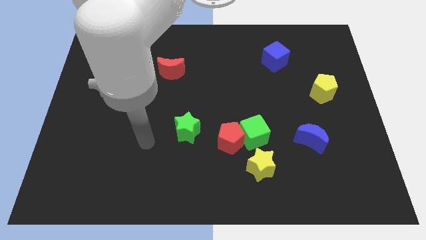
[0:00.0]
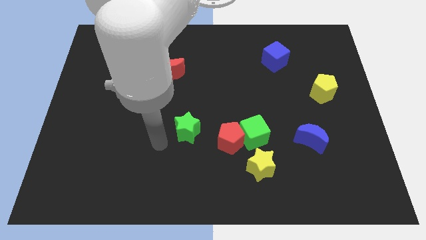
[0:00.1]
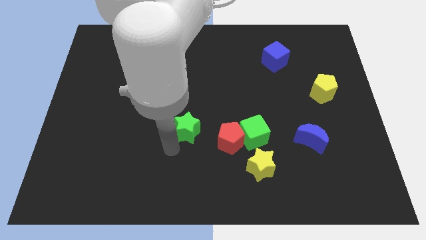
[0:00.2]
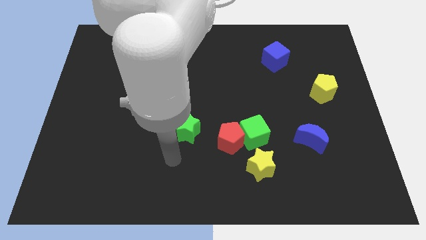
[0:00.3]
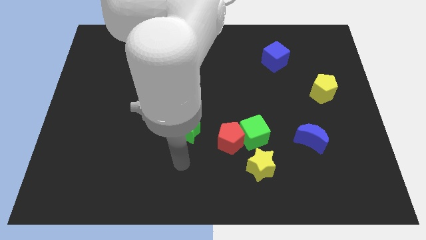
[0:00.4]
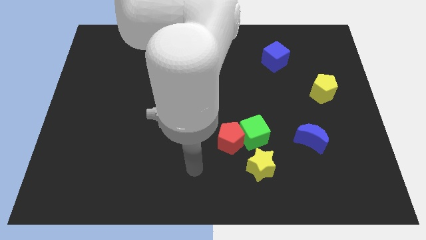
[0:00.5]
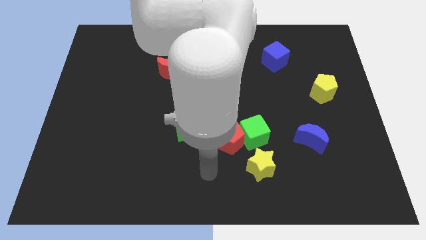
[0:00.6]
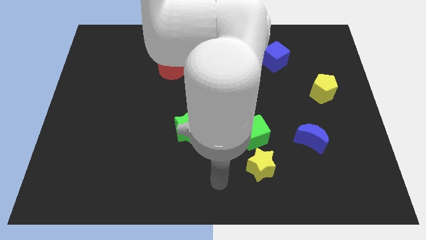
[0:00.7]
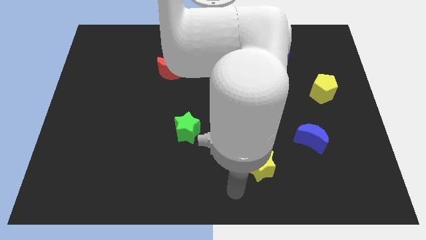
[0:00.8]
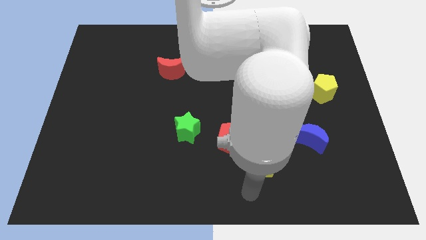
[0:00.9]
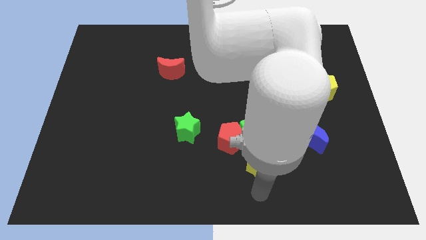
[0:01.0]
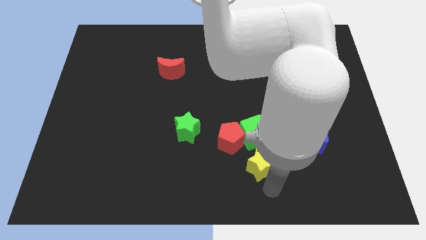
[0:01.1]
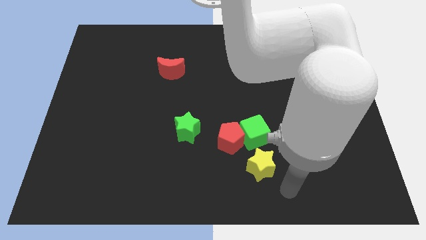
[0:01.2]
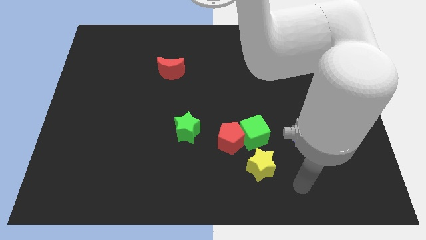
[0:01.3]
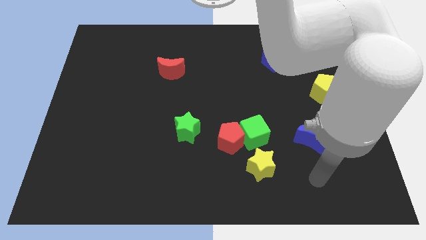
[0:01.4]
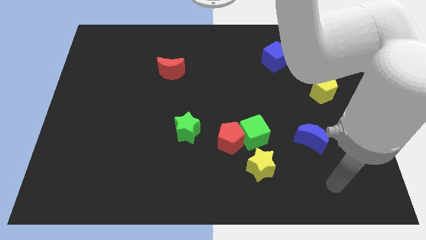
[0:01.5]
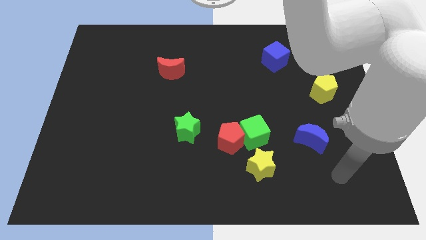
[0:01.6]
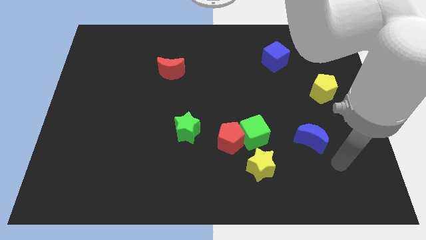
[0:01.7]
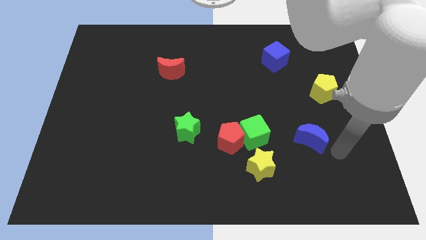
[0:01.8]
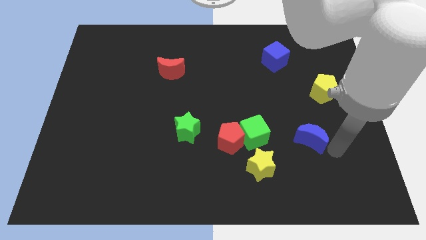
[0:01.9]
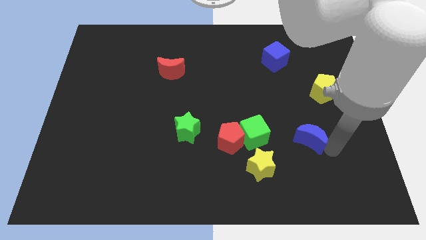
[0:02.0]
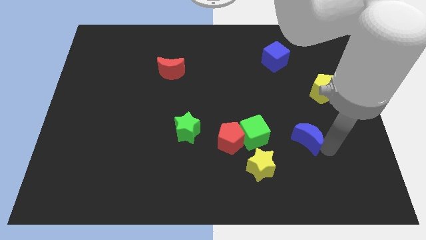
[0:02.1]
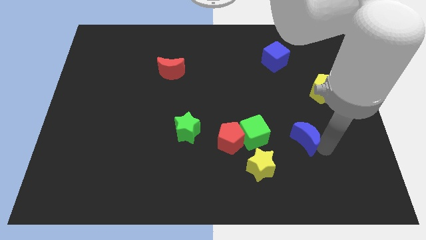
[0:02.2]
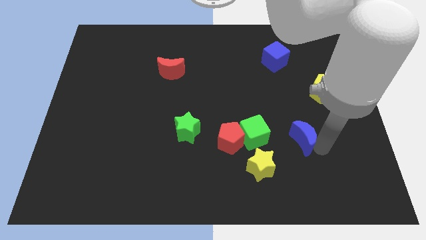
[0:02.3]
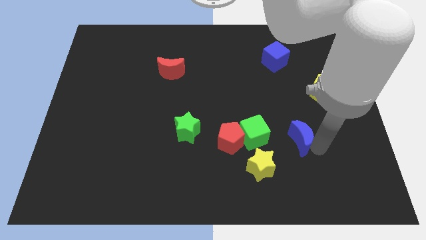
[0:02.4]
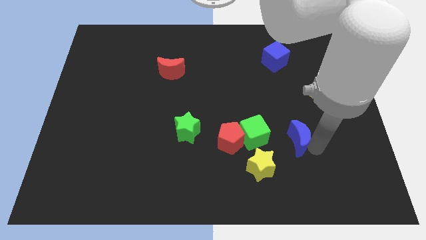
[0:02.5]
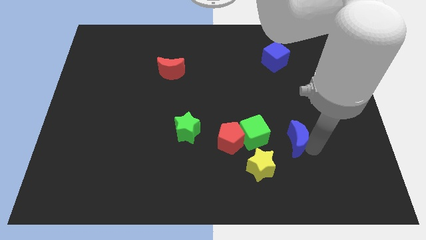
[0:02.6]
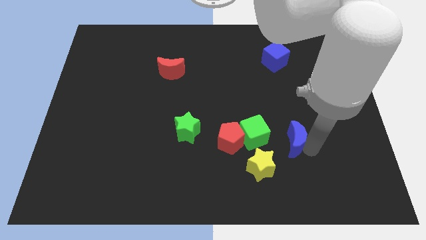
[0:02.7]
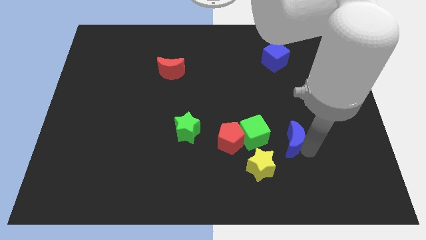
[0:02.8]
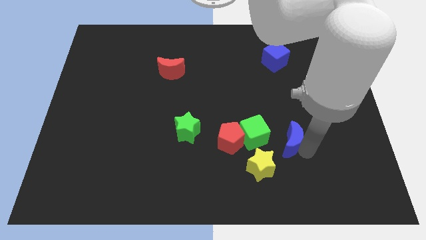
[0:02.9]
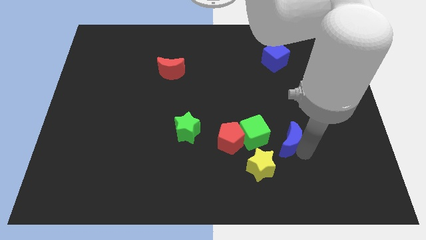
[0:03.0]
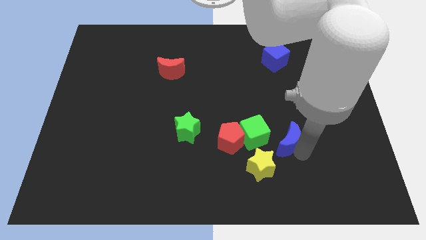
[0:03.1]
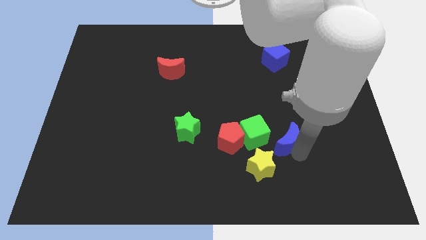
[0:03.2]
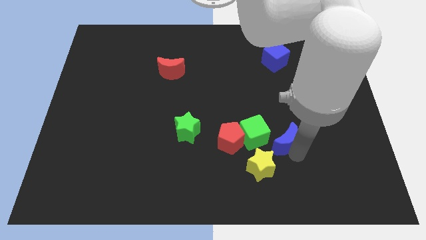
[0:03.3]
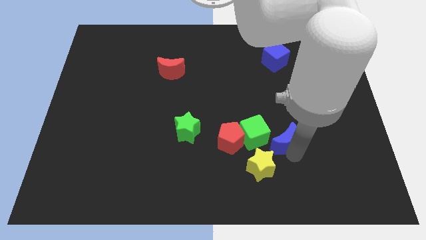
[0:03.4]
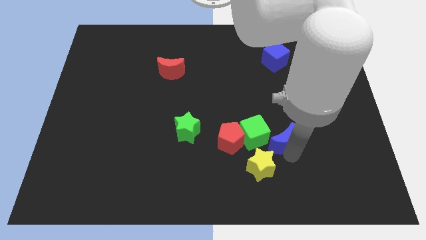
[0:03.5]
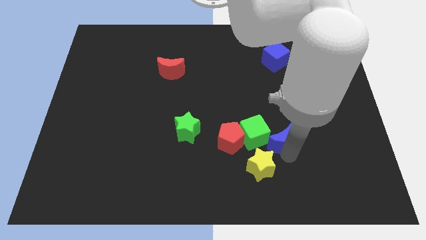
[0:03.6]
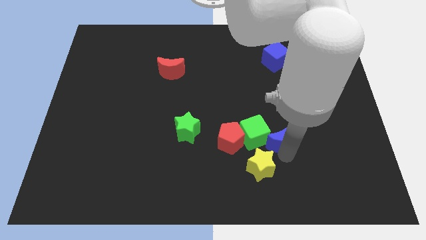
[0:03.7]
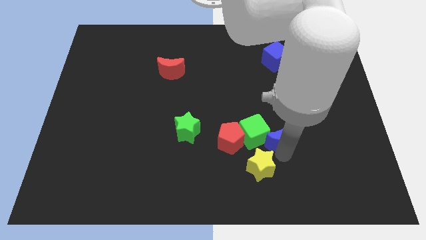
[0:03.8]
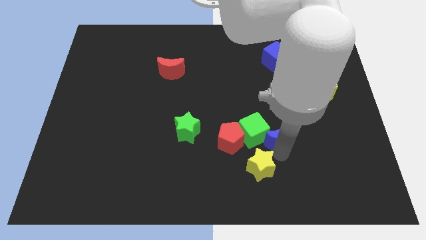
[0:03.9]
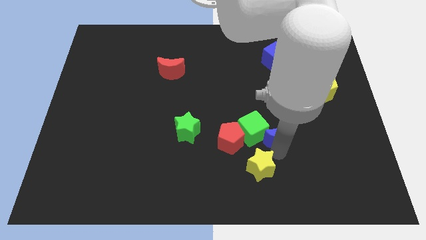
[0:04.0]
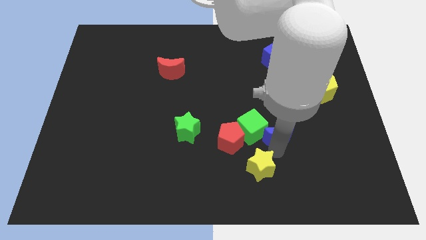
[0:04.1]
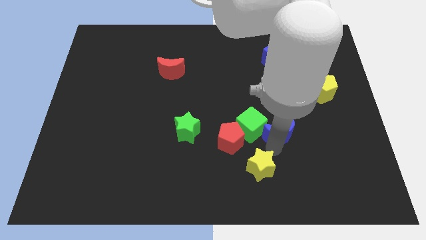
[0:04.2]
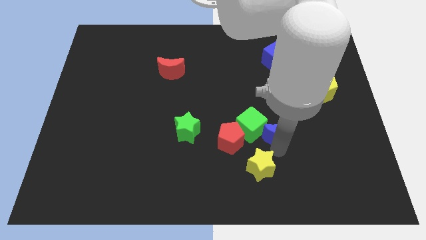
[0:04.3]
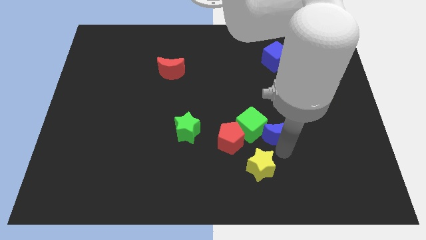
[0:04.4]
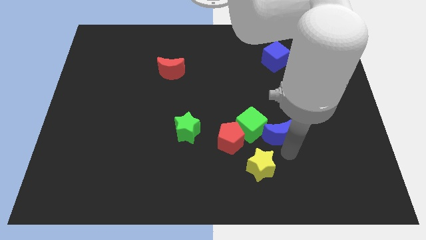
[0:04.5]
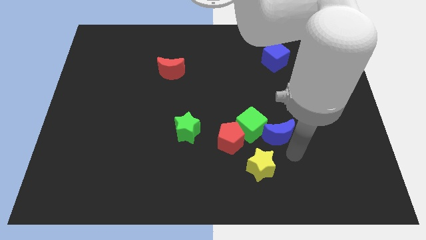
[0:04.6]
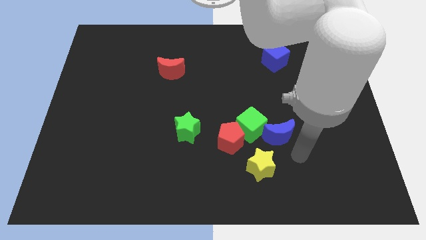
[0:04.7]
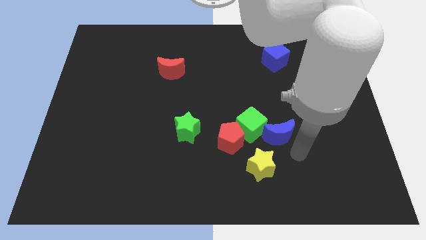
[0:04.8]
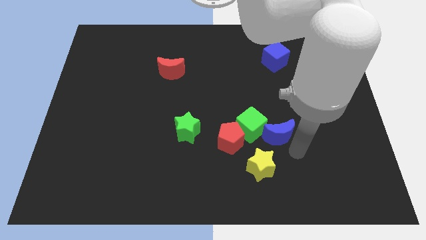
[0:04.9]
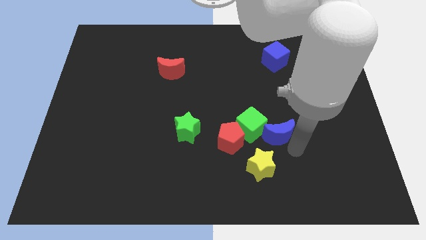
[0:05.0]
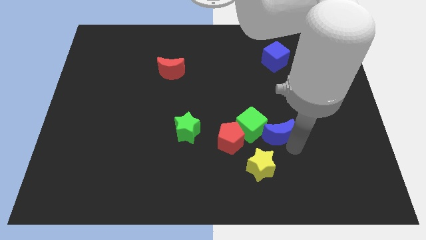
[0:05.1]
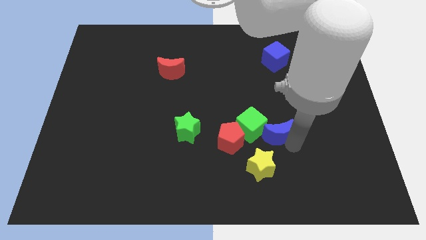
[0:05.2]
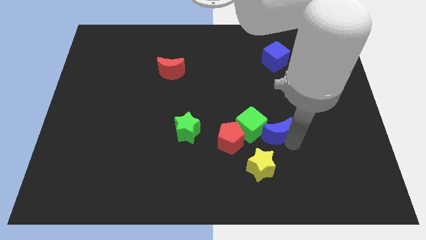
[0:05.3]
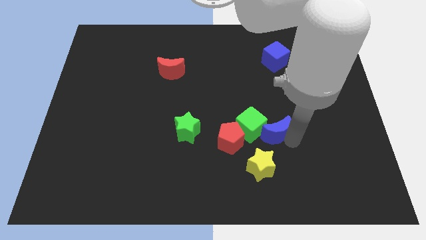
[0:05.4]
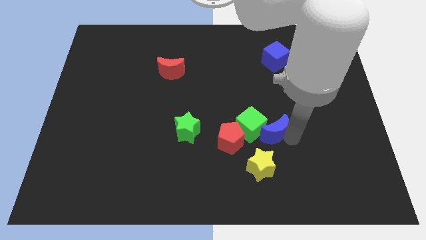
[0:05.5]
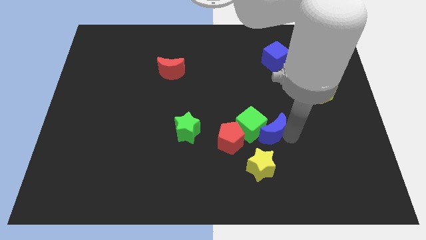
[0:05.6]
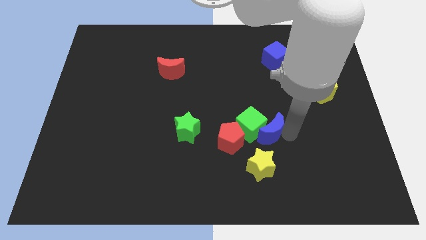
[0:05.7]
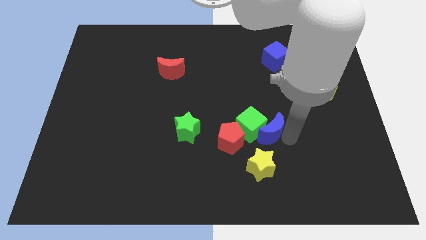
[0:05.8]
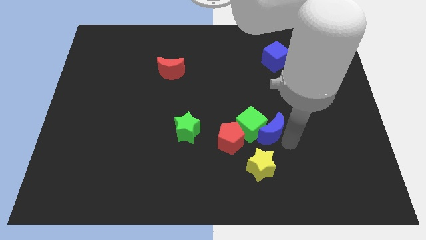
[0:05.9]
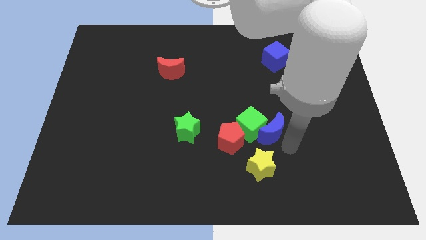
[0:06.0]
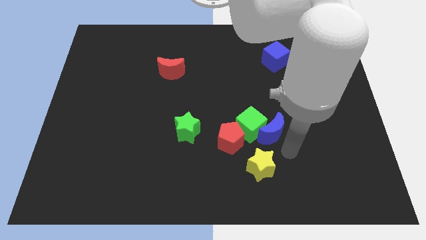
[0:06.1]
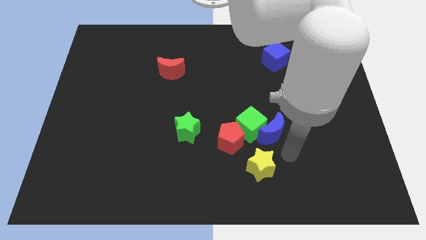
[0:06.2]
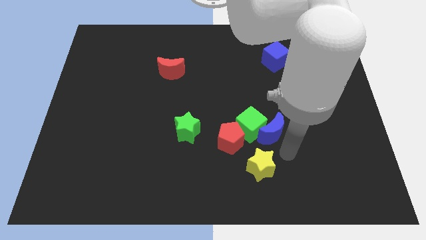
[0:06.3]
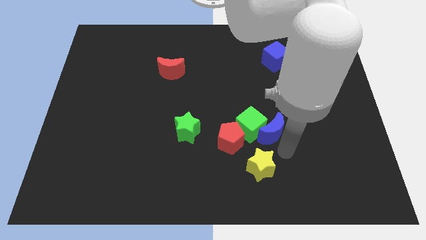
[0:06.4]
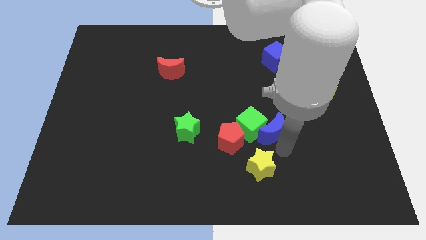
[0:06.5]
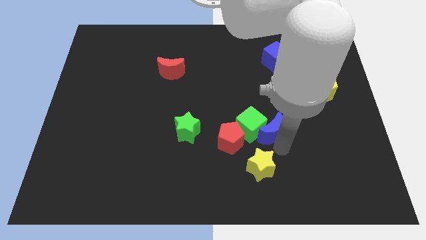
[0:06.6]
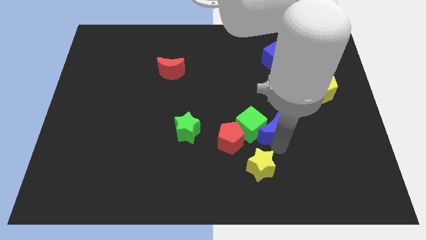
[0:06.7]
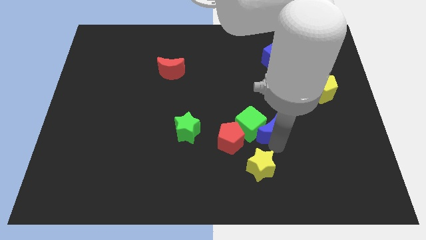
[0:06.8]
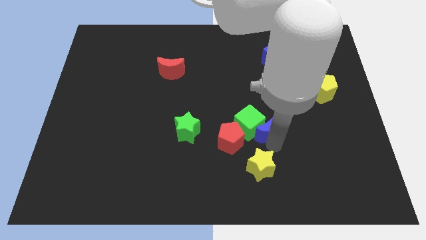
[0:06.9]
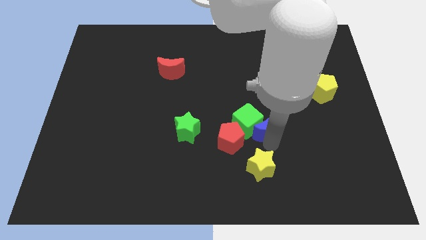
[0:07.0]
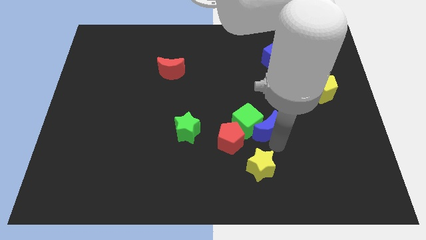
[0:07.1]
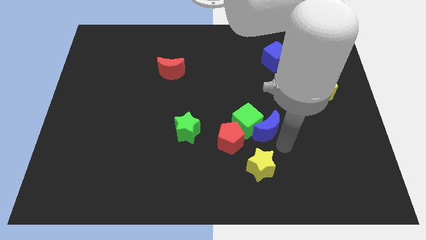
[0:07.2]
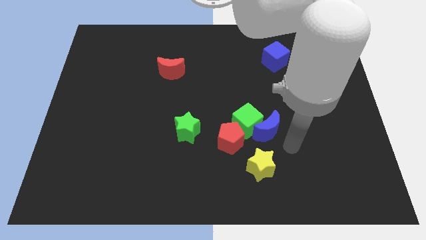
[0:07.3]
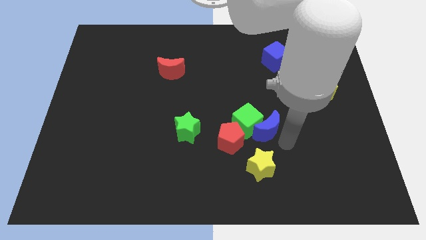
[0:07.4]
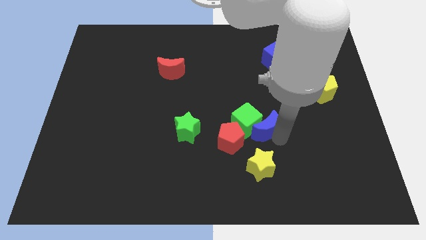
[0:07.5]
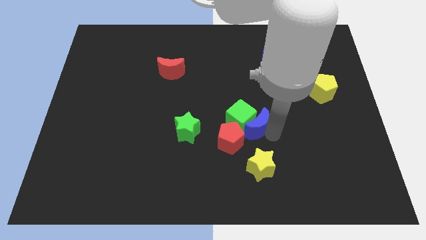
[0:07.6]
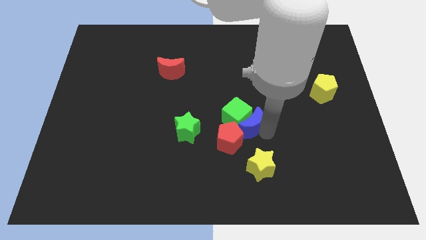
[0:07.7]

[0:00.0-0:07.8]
put the blue moon to the middle
